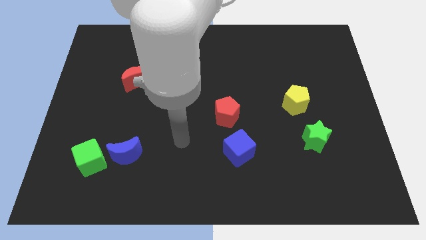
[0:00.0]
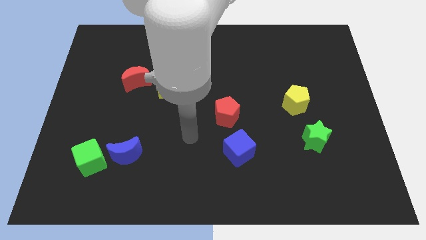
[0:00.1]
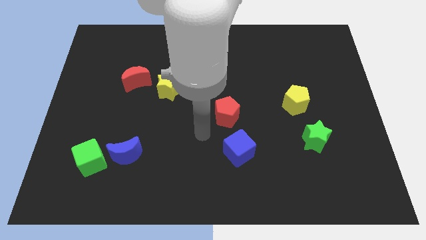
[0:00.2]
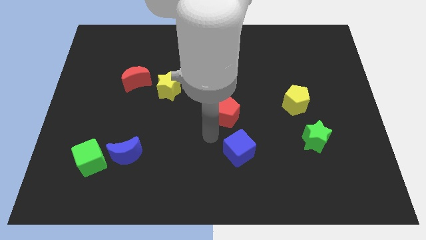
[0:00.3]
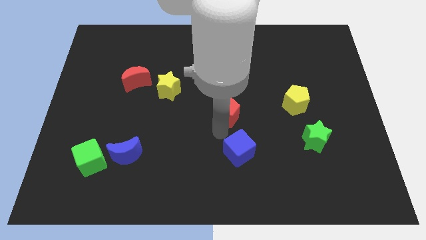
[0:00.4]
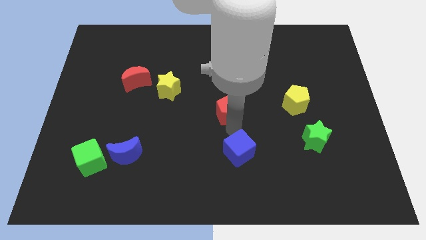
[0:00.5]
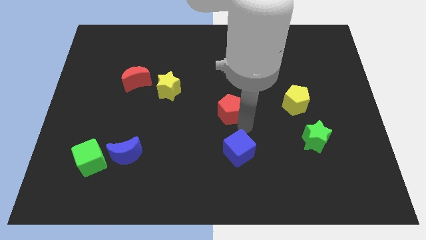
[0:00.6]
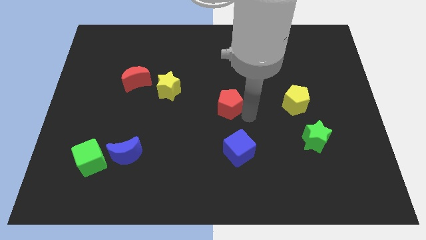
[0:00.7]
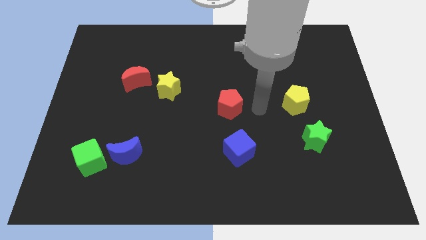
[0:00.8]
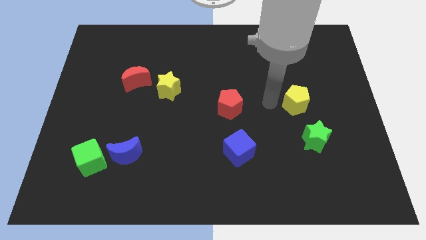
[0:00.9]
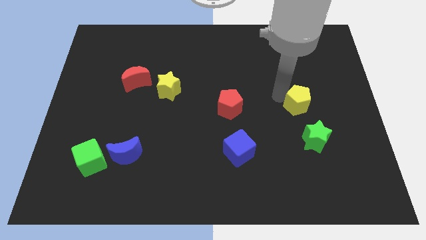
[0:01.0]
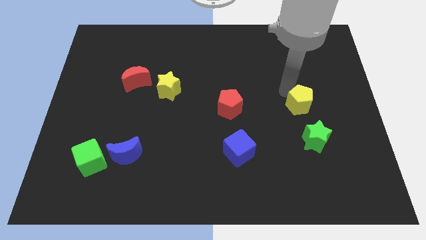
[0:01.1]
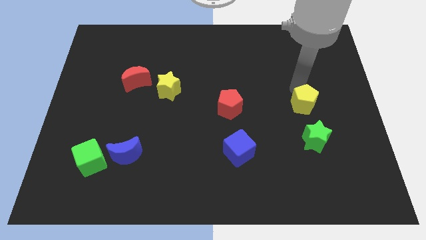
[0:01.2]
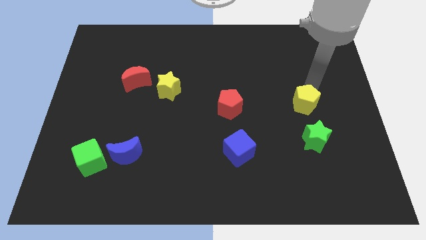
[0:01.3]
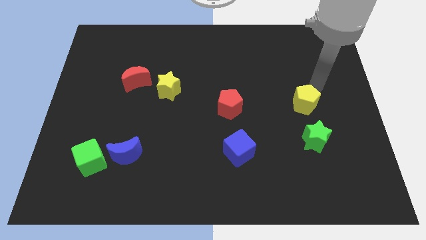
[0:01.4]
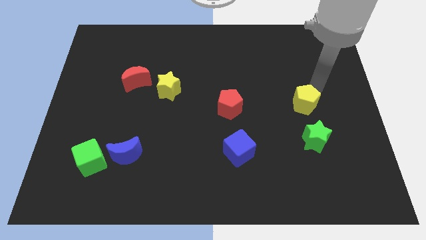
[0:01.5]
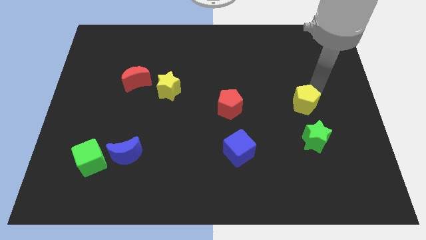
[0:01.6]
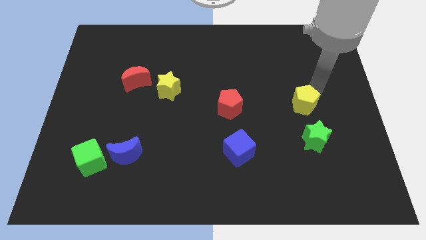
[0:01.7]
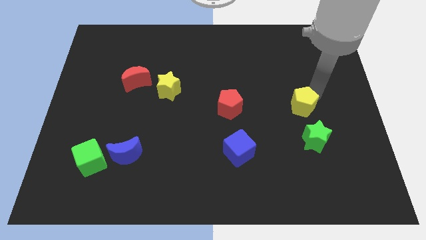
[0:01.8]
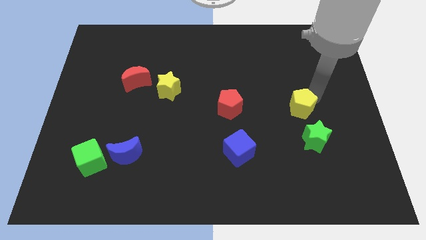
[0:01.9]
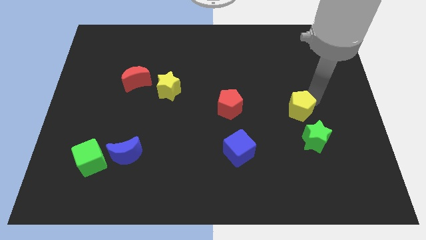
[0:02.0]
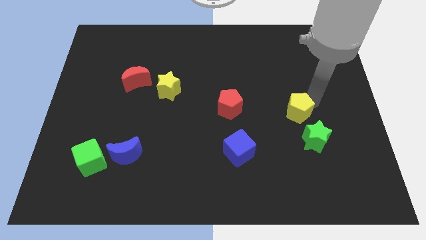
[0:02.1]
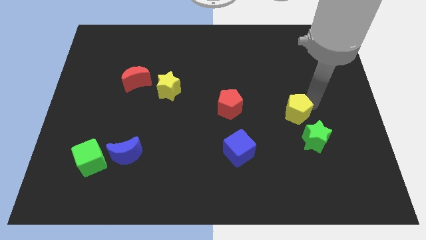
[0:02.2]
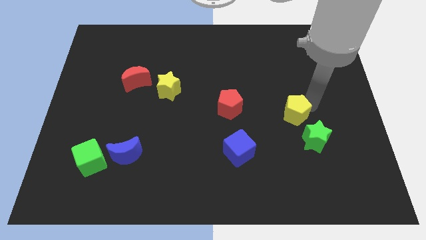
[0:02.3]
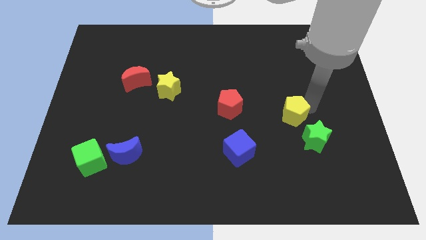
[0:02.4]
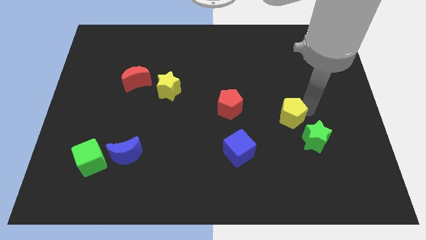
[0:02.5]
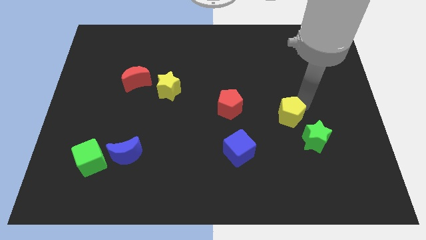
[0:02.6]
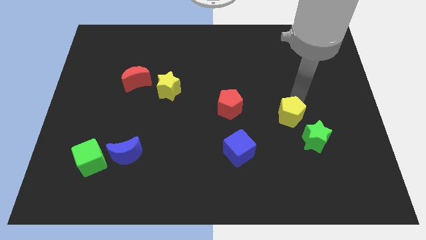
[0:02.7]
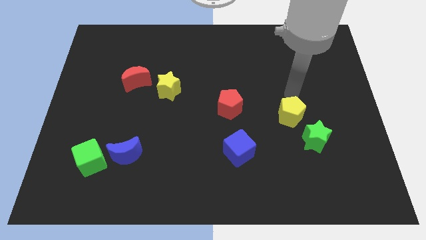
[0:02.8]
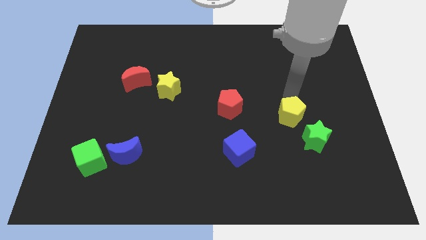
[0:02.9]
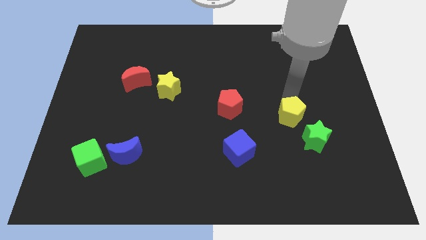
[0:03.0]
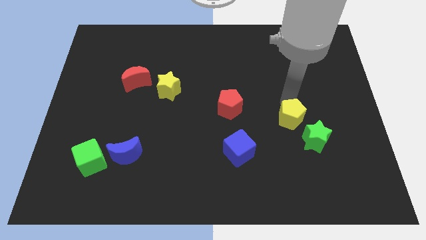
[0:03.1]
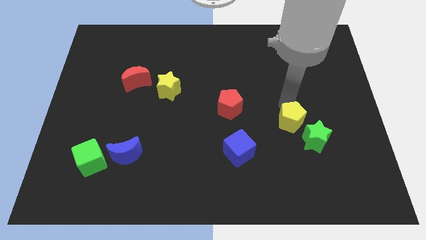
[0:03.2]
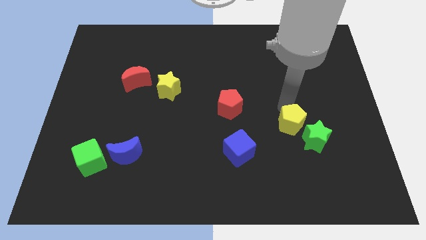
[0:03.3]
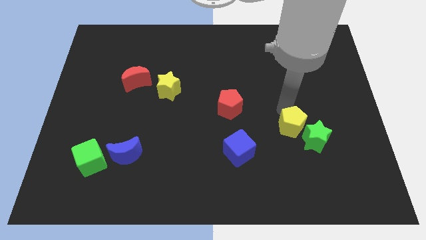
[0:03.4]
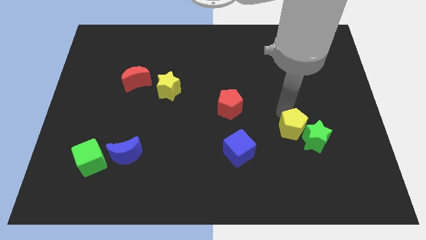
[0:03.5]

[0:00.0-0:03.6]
move the yellow pentagon down a bit

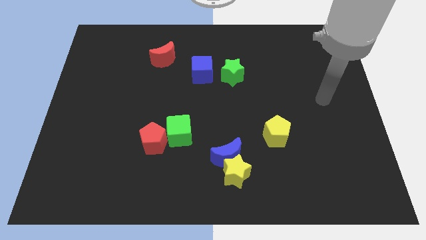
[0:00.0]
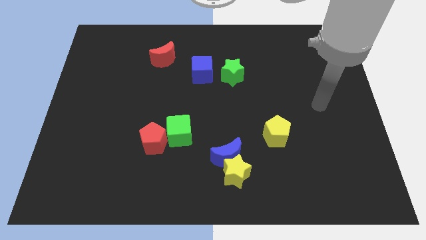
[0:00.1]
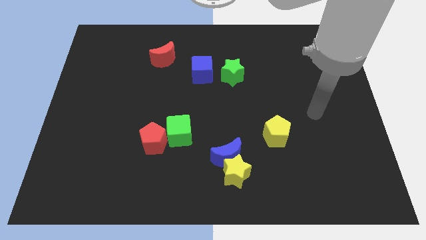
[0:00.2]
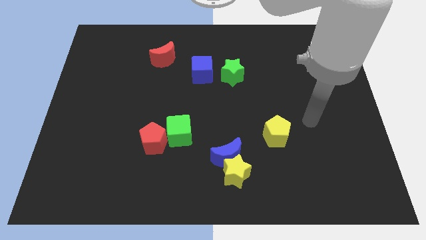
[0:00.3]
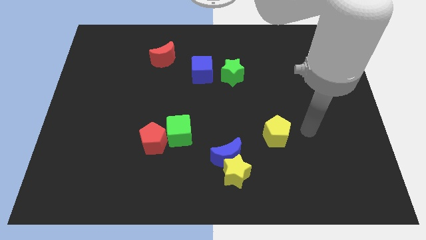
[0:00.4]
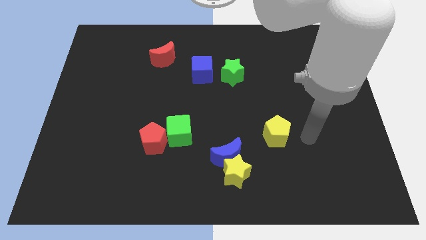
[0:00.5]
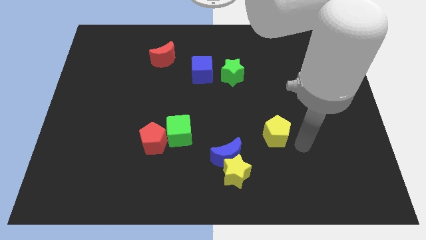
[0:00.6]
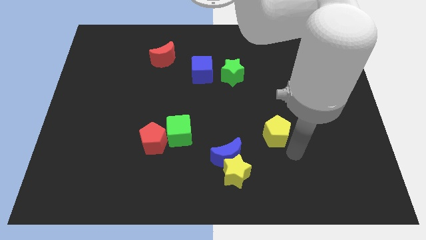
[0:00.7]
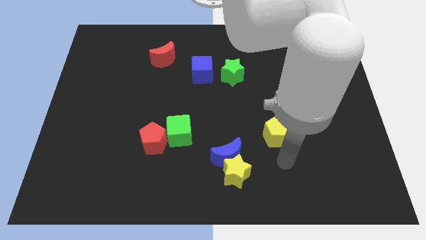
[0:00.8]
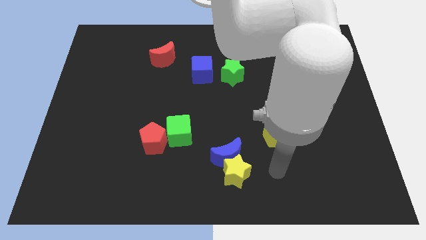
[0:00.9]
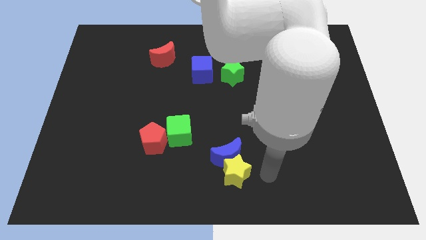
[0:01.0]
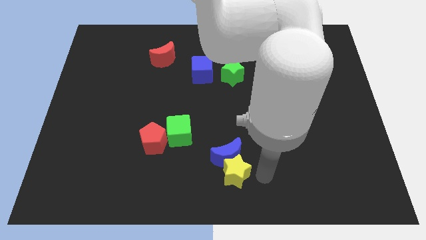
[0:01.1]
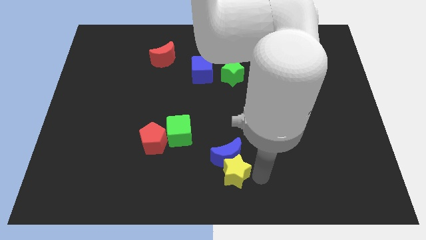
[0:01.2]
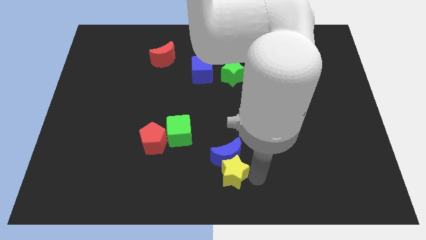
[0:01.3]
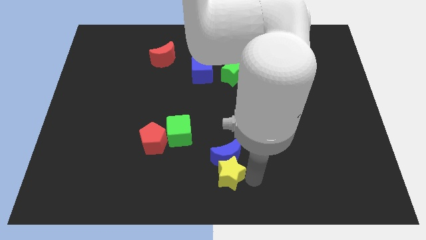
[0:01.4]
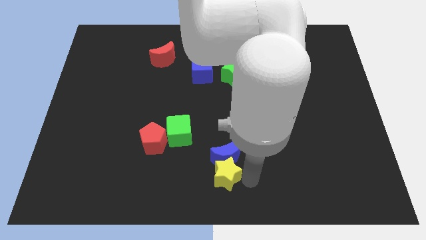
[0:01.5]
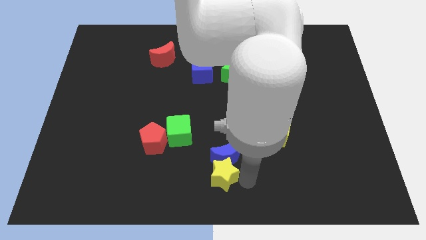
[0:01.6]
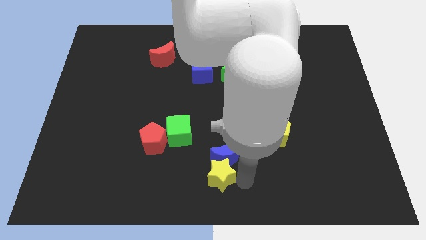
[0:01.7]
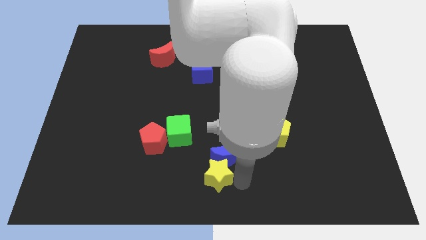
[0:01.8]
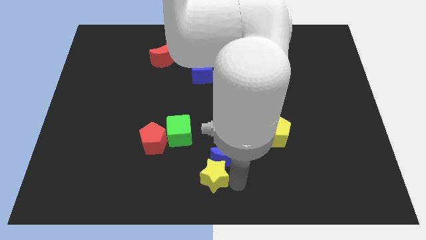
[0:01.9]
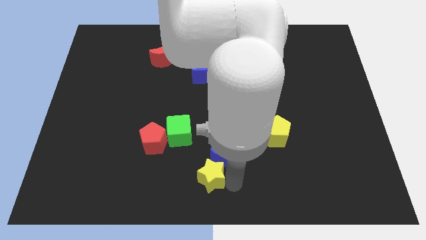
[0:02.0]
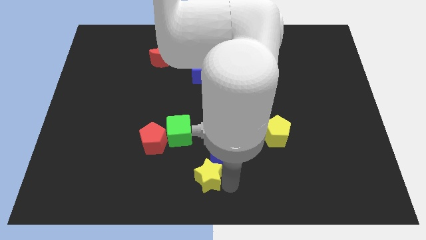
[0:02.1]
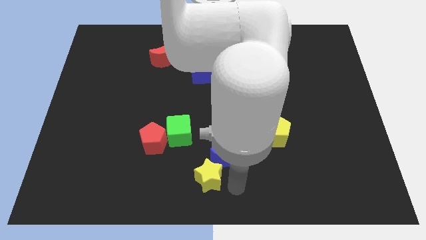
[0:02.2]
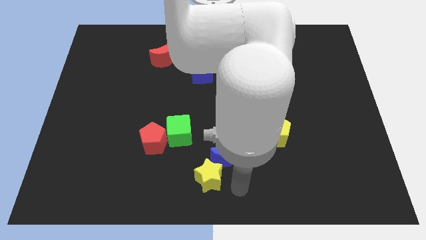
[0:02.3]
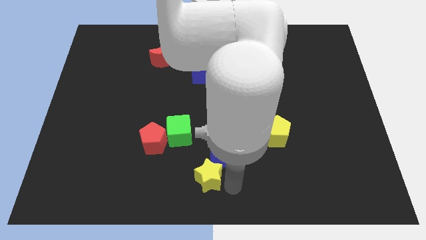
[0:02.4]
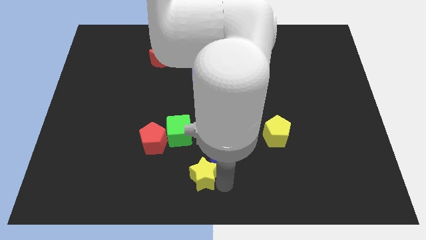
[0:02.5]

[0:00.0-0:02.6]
slide the yellow star to the left a bit

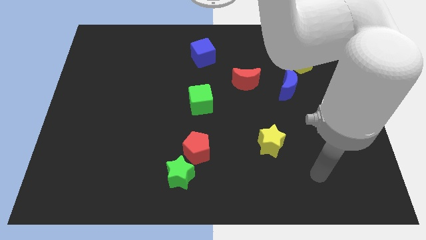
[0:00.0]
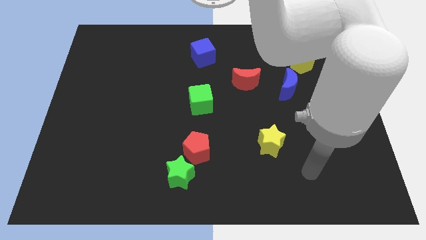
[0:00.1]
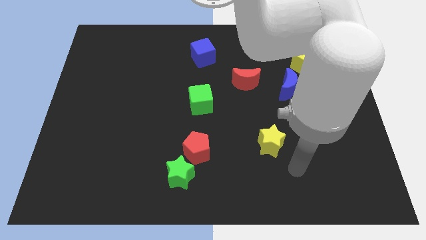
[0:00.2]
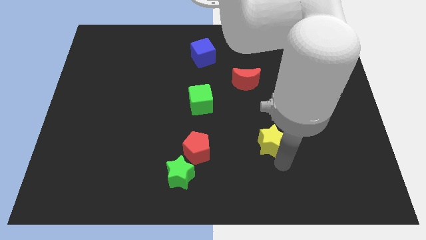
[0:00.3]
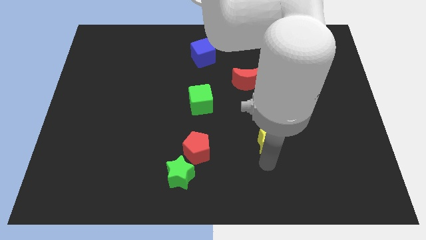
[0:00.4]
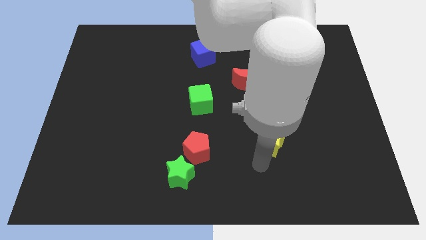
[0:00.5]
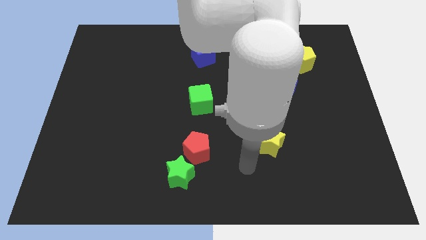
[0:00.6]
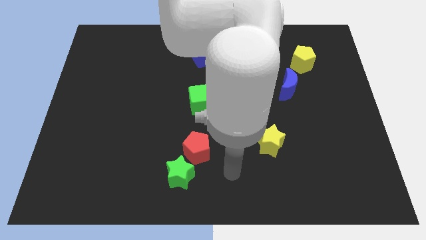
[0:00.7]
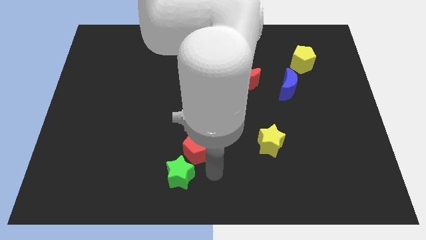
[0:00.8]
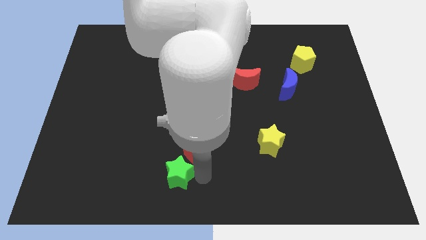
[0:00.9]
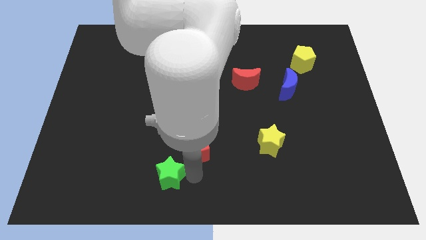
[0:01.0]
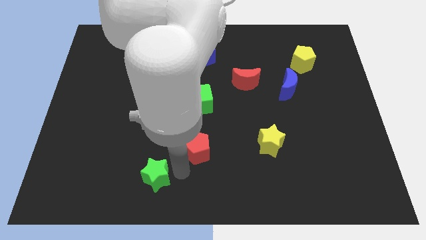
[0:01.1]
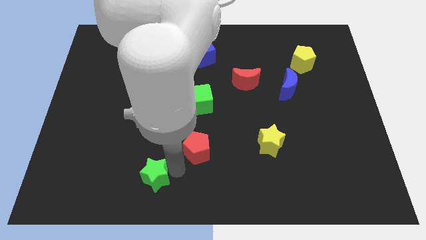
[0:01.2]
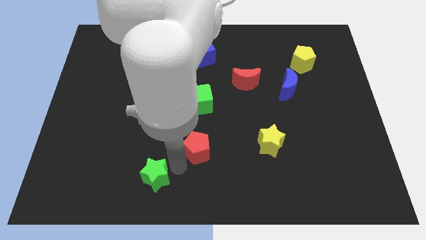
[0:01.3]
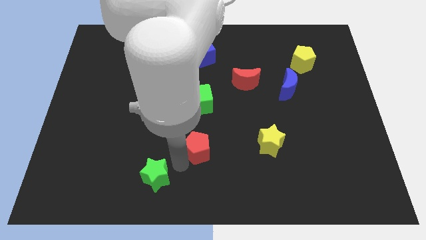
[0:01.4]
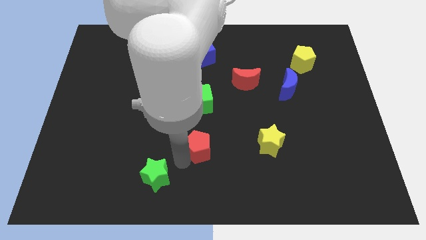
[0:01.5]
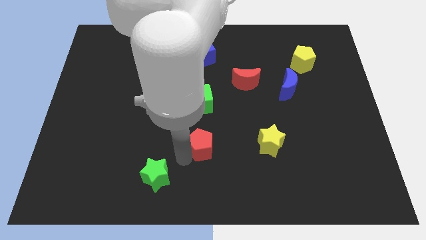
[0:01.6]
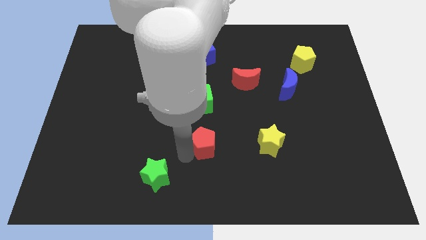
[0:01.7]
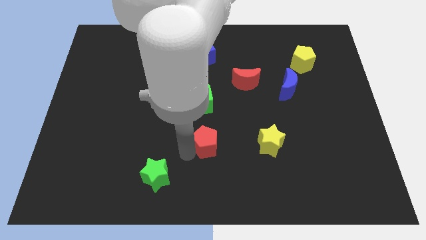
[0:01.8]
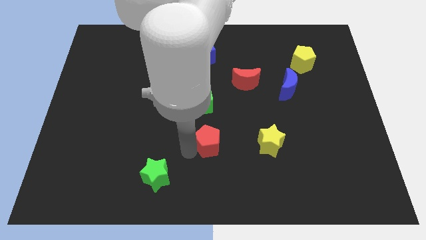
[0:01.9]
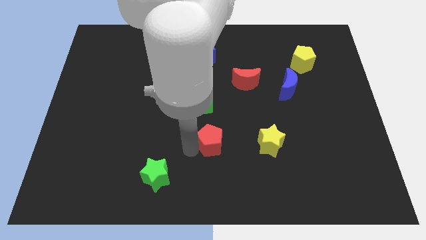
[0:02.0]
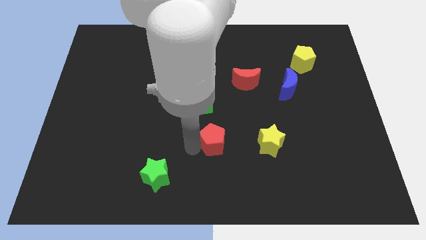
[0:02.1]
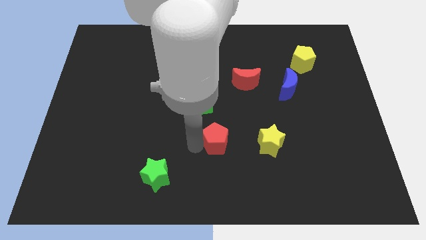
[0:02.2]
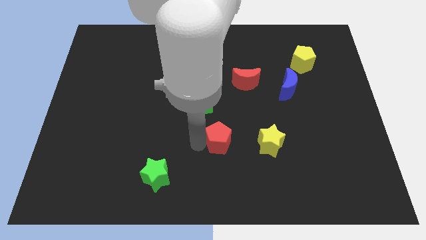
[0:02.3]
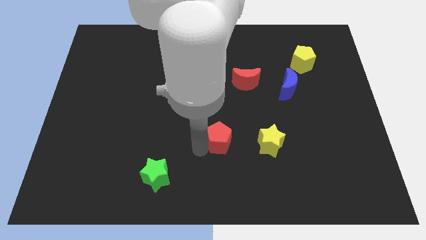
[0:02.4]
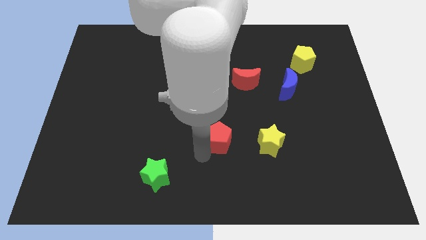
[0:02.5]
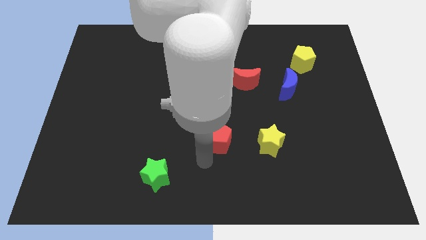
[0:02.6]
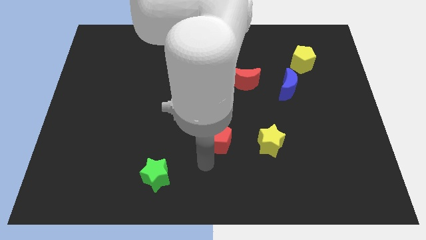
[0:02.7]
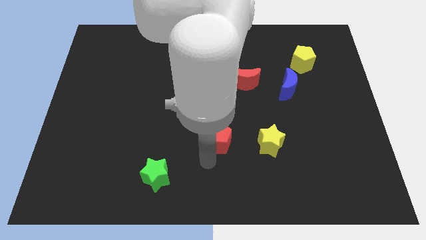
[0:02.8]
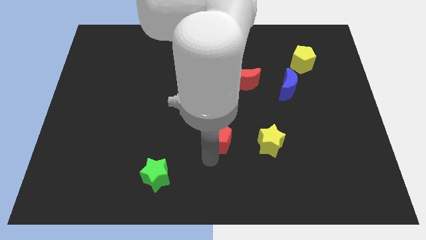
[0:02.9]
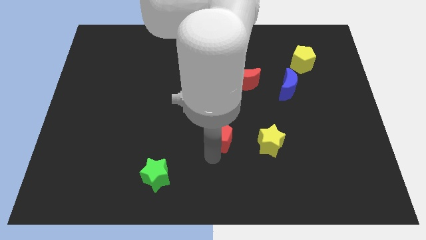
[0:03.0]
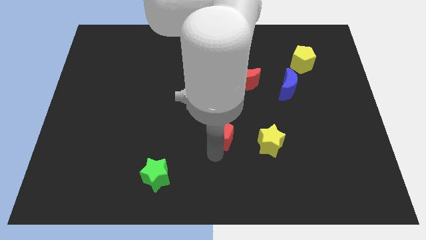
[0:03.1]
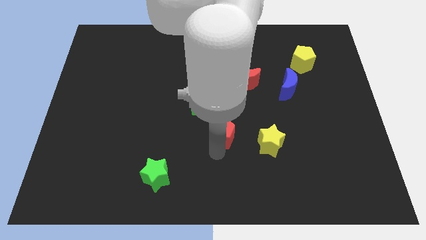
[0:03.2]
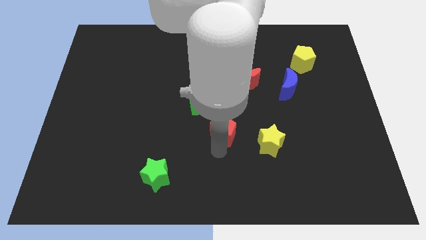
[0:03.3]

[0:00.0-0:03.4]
slide the red pentagon upwards and right diagonally somewhat
